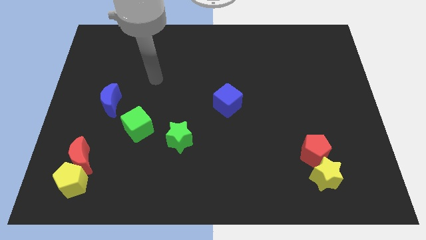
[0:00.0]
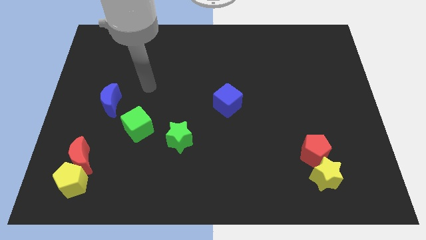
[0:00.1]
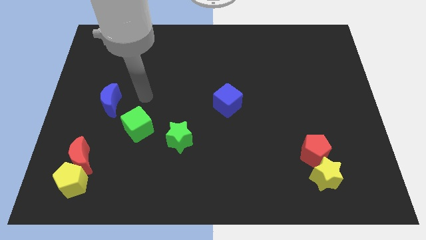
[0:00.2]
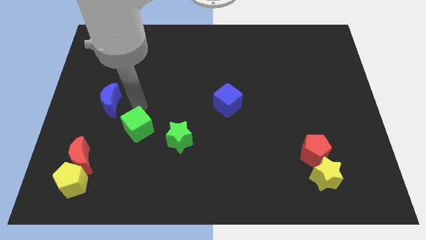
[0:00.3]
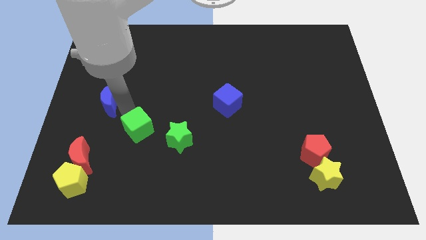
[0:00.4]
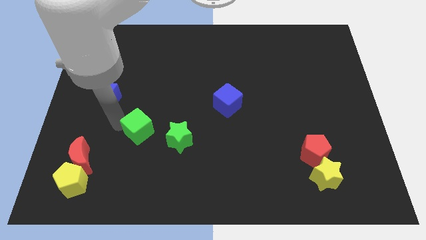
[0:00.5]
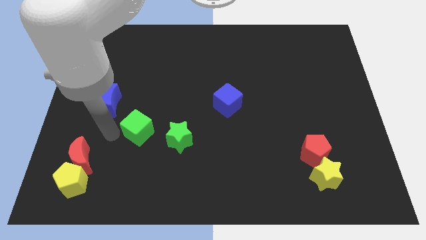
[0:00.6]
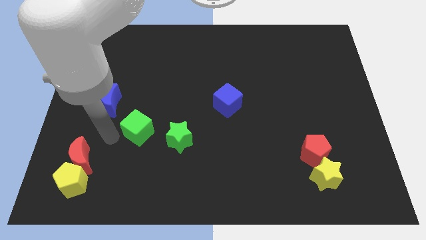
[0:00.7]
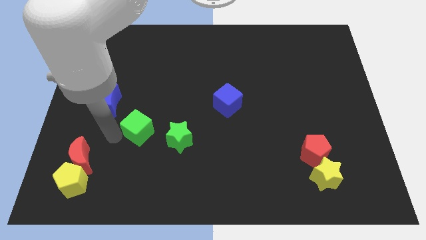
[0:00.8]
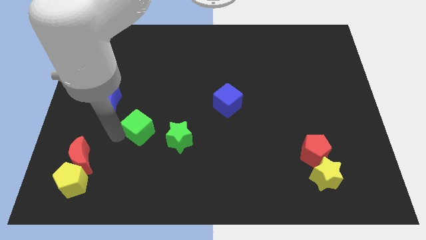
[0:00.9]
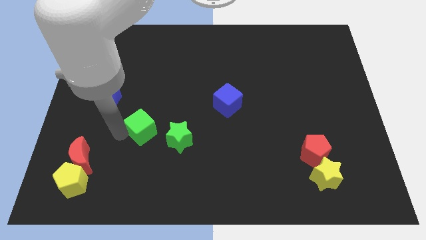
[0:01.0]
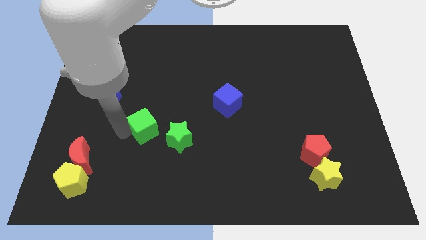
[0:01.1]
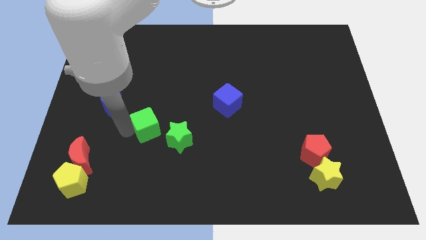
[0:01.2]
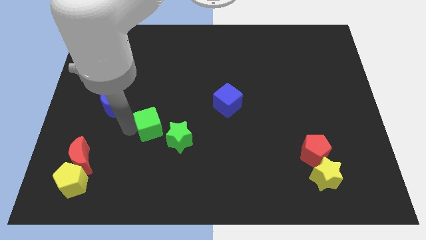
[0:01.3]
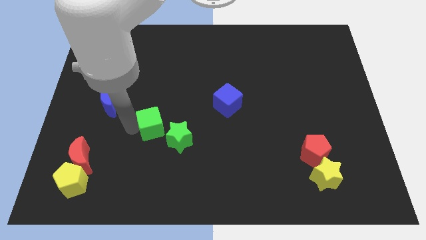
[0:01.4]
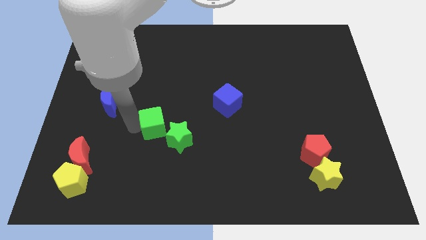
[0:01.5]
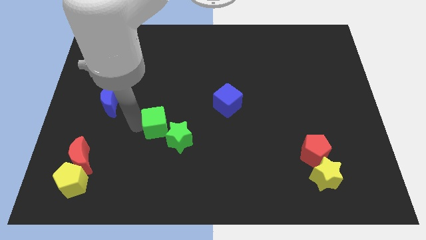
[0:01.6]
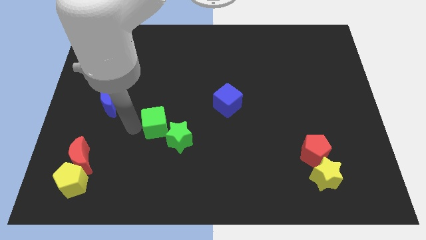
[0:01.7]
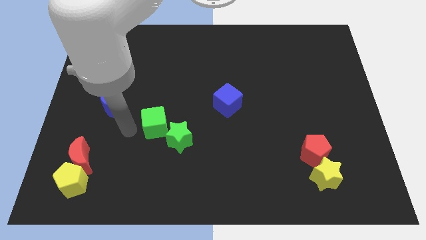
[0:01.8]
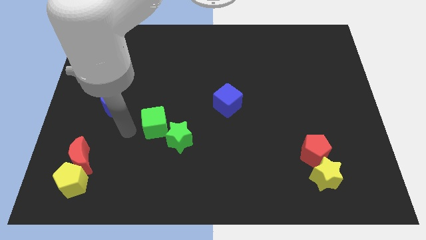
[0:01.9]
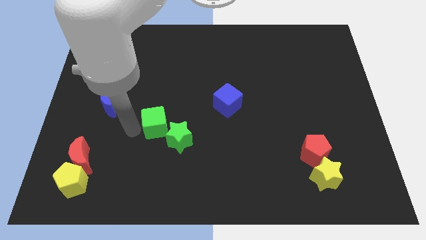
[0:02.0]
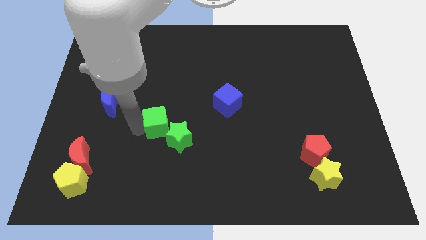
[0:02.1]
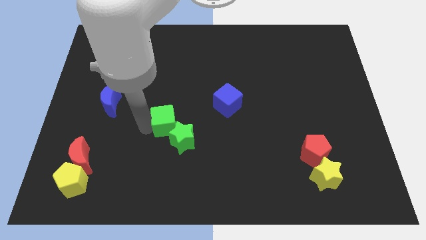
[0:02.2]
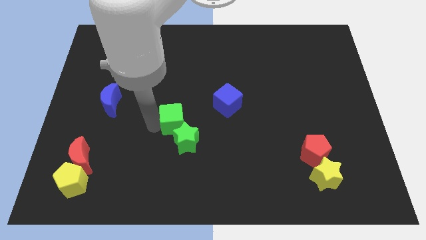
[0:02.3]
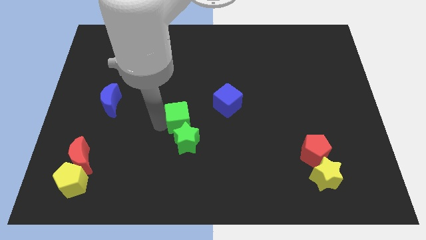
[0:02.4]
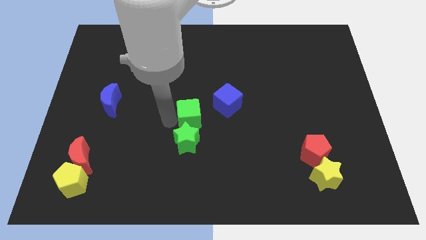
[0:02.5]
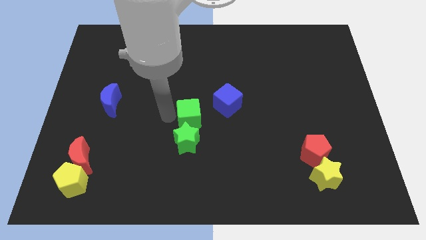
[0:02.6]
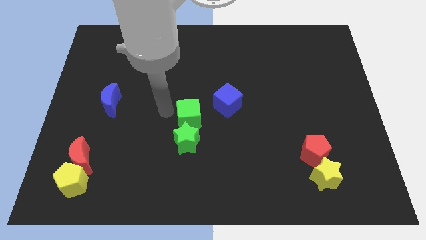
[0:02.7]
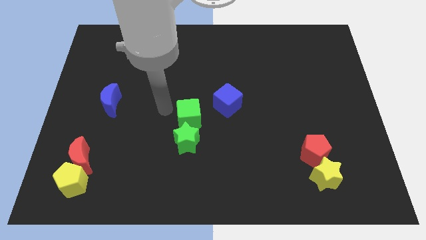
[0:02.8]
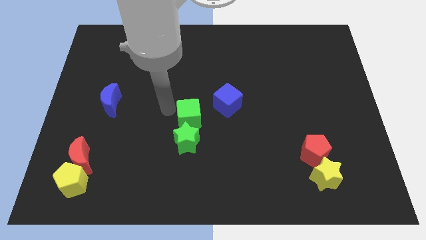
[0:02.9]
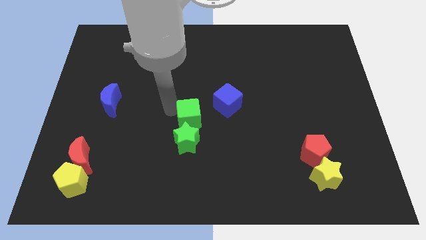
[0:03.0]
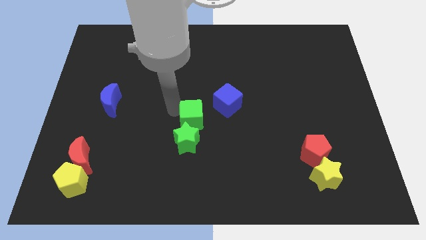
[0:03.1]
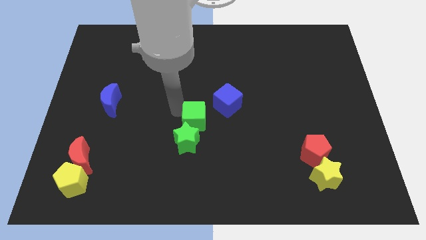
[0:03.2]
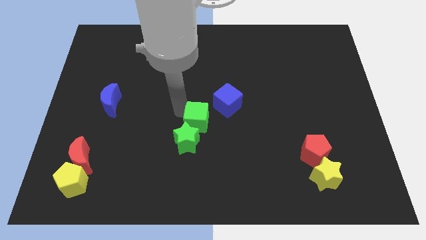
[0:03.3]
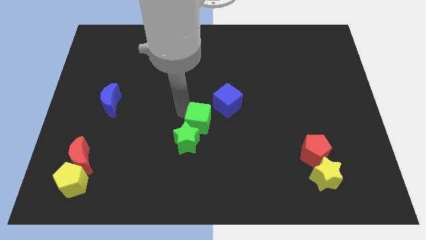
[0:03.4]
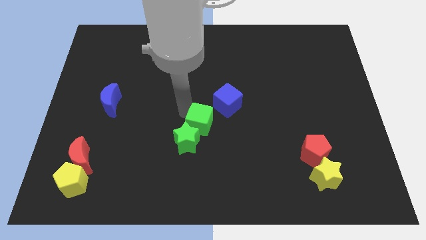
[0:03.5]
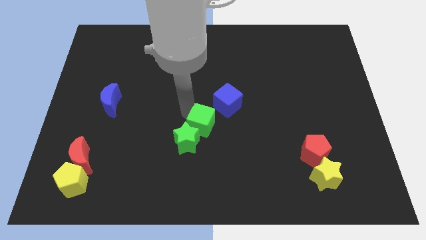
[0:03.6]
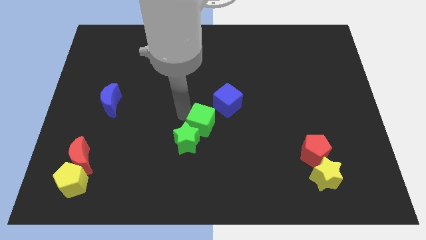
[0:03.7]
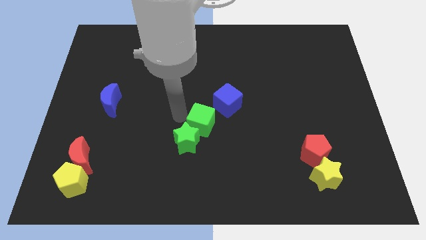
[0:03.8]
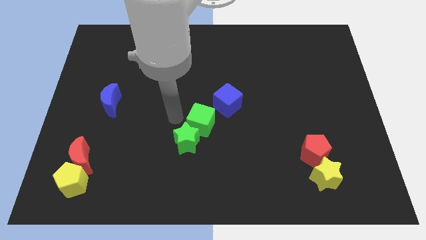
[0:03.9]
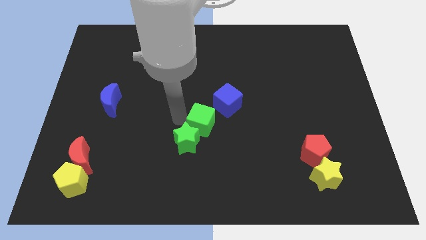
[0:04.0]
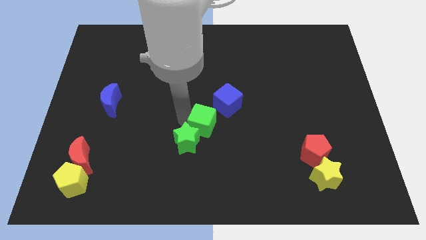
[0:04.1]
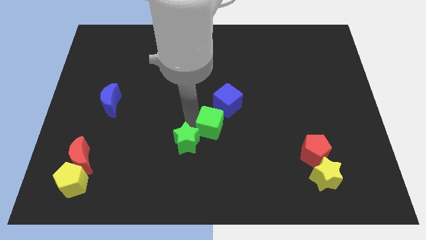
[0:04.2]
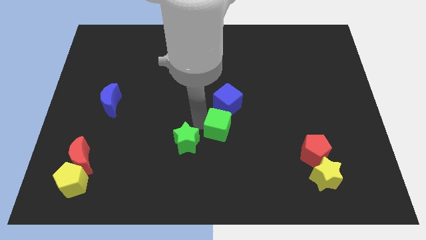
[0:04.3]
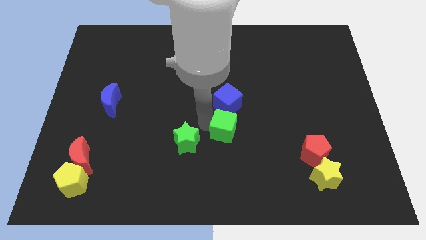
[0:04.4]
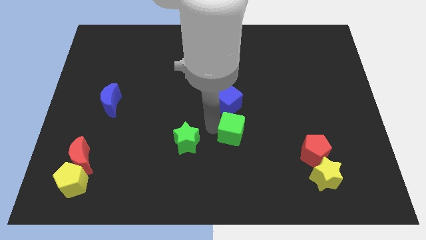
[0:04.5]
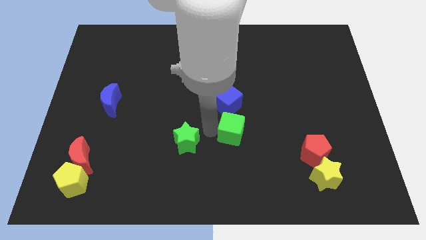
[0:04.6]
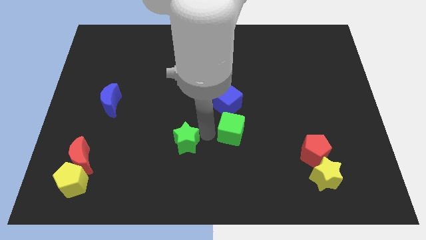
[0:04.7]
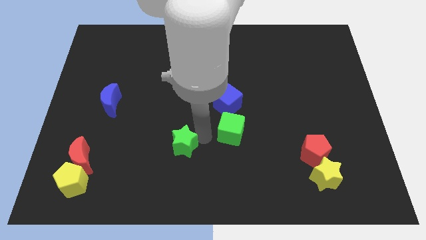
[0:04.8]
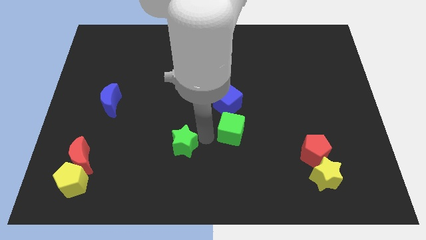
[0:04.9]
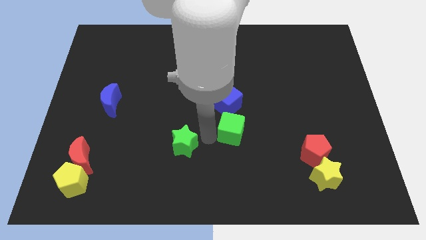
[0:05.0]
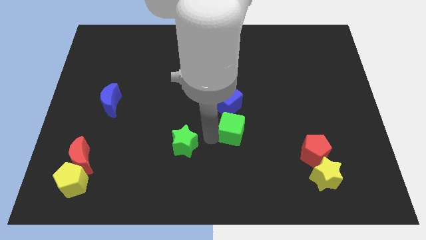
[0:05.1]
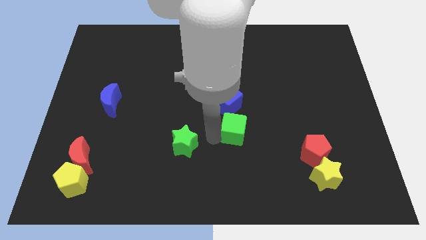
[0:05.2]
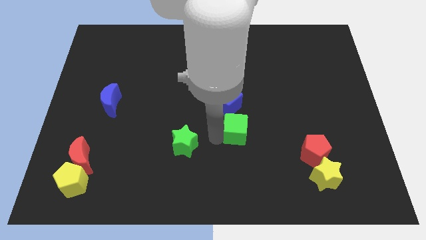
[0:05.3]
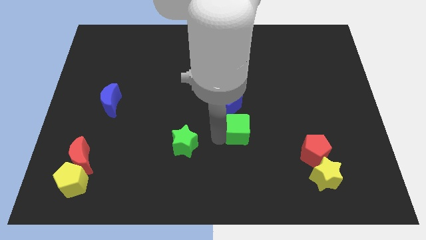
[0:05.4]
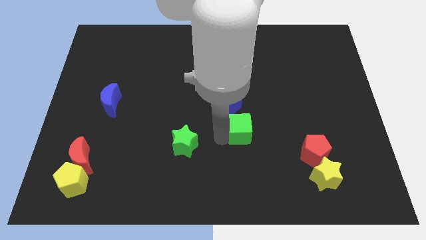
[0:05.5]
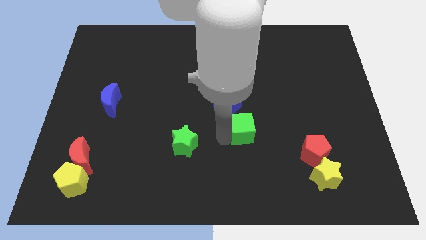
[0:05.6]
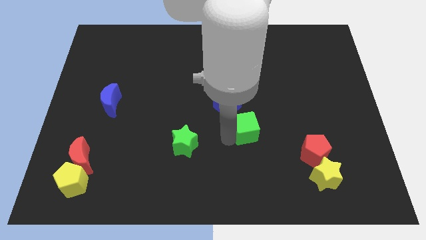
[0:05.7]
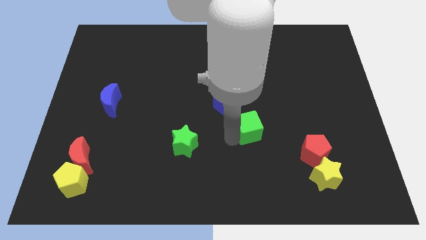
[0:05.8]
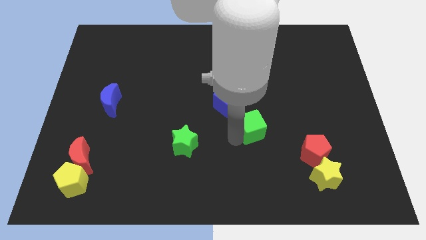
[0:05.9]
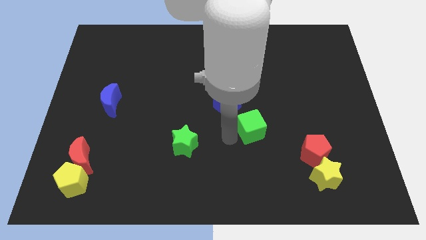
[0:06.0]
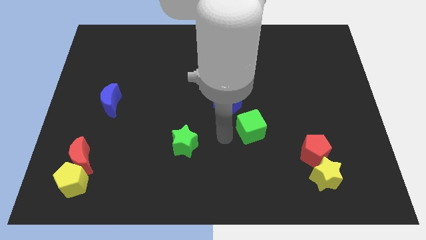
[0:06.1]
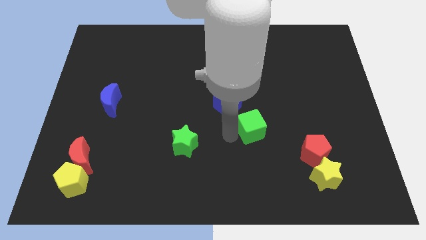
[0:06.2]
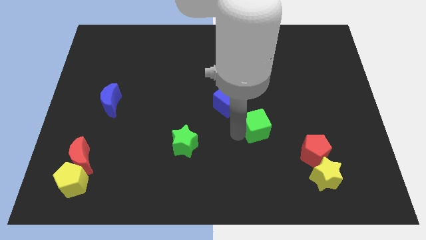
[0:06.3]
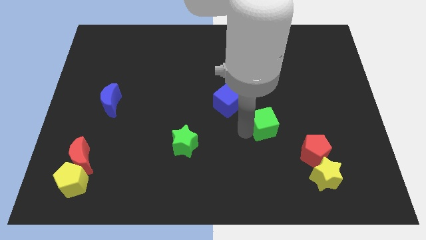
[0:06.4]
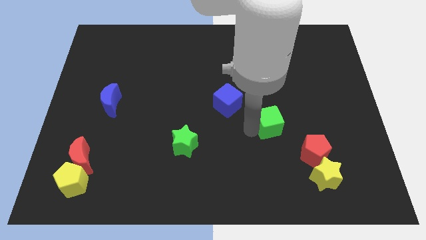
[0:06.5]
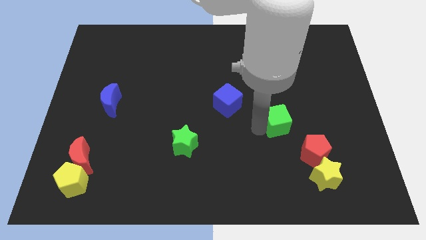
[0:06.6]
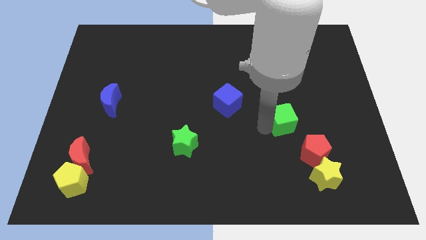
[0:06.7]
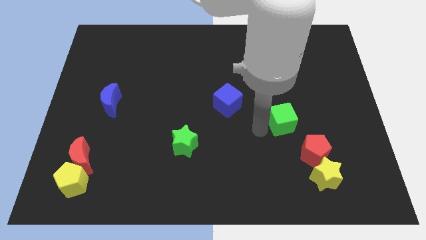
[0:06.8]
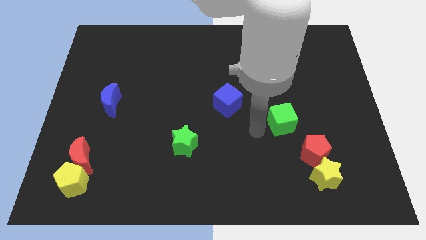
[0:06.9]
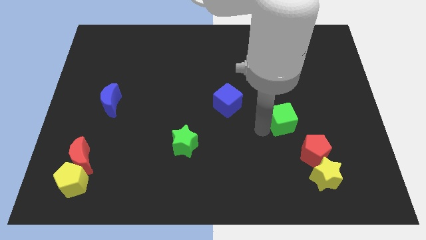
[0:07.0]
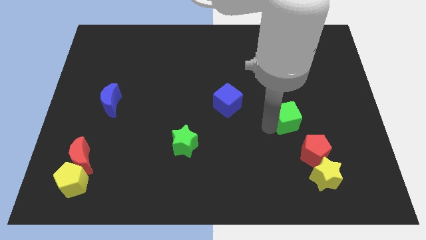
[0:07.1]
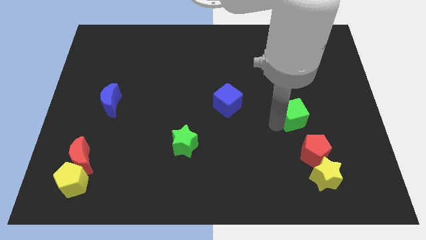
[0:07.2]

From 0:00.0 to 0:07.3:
slide the green cube above the red pentagon

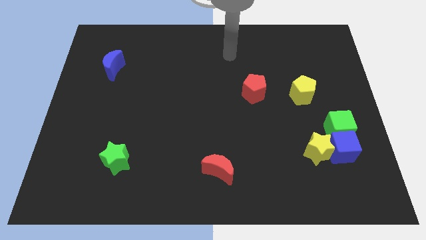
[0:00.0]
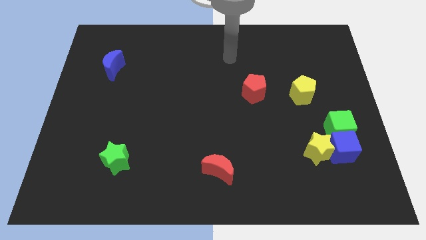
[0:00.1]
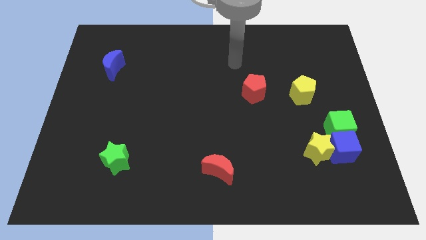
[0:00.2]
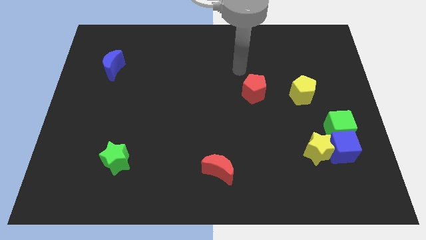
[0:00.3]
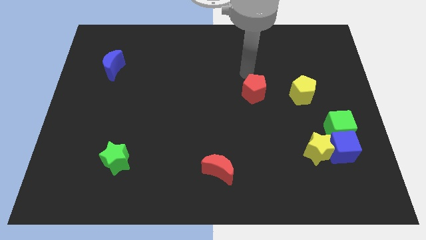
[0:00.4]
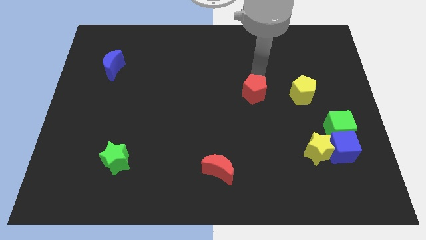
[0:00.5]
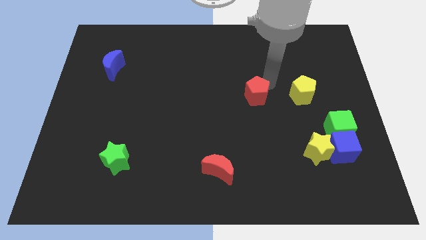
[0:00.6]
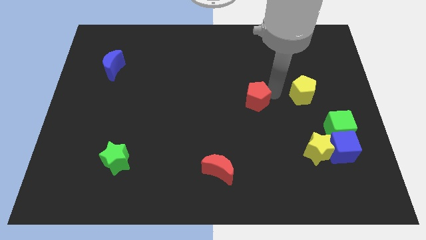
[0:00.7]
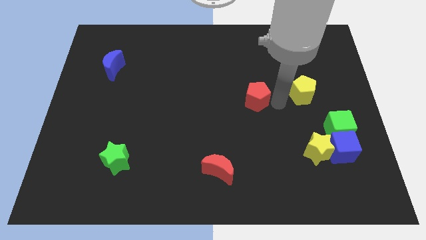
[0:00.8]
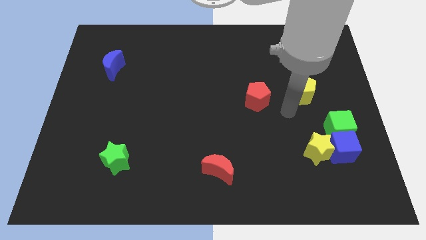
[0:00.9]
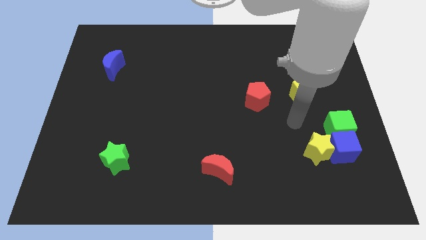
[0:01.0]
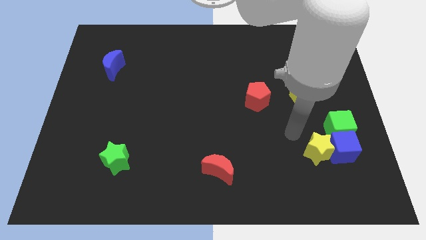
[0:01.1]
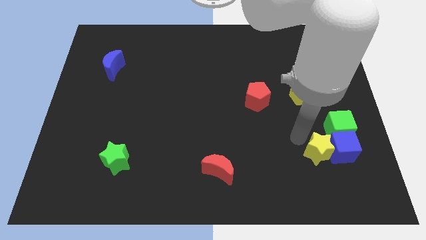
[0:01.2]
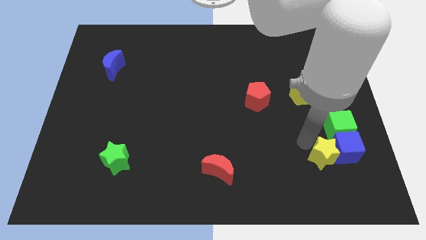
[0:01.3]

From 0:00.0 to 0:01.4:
slide the yellow star to the bottom of the green cube
